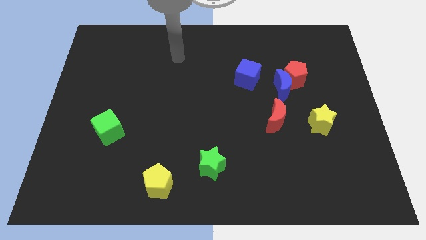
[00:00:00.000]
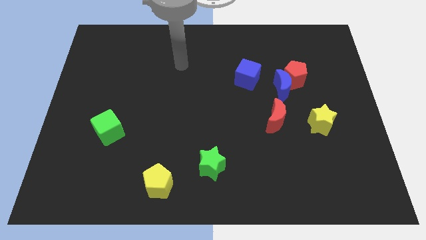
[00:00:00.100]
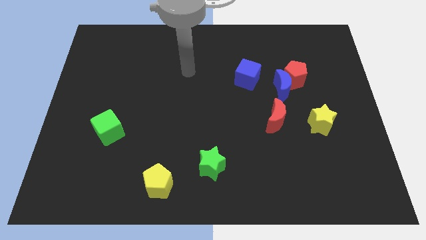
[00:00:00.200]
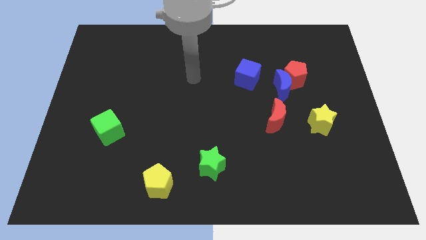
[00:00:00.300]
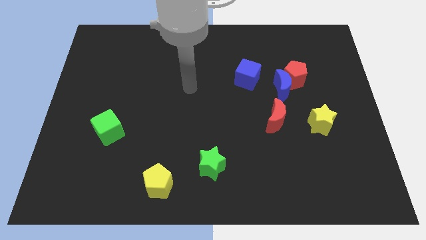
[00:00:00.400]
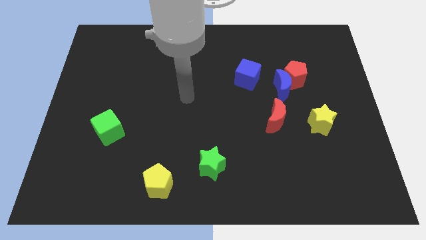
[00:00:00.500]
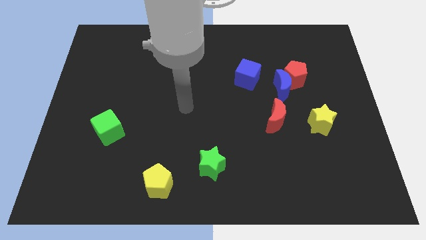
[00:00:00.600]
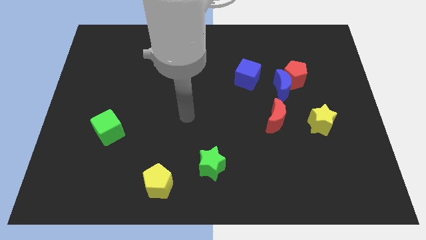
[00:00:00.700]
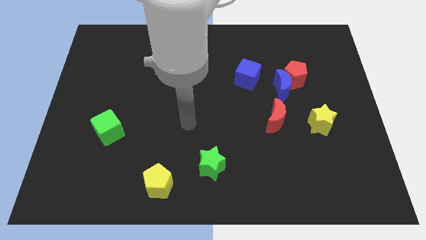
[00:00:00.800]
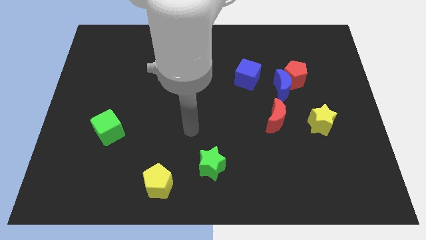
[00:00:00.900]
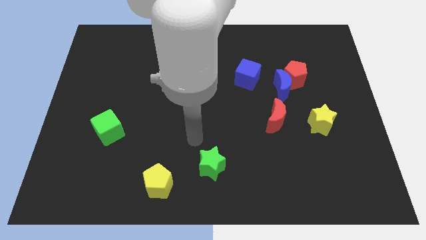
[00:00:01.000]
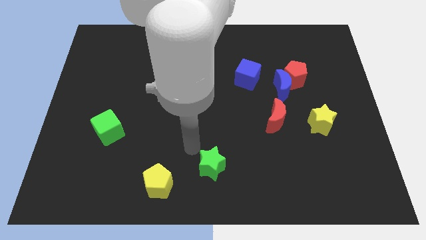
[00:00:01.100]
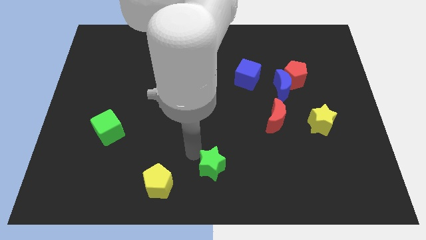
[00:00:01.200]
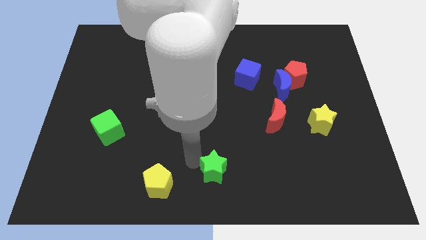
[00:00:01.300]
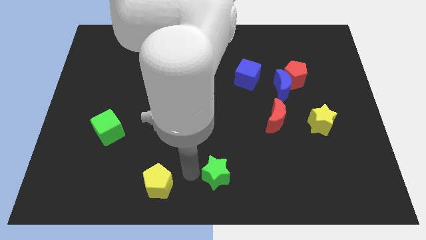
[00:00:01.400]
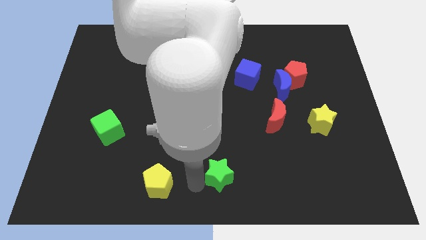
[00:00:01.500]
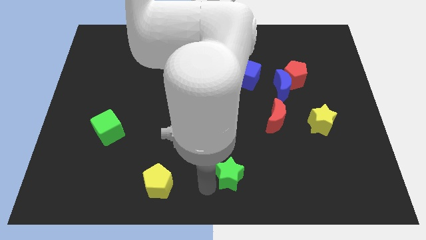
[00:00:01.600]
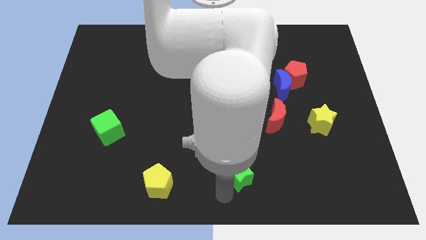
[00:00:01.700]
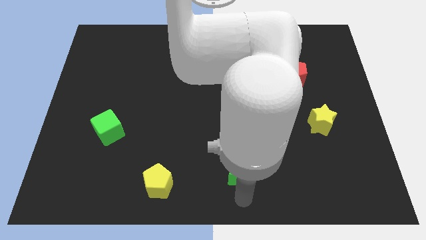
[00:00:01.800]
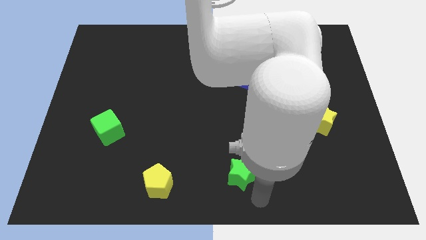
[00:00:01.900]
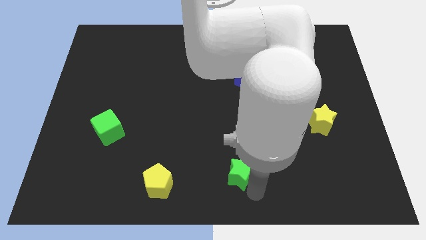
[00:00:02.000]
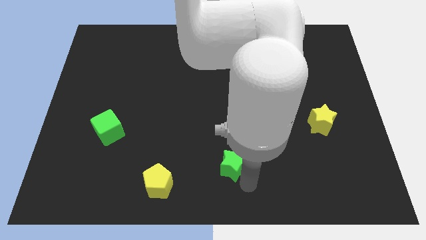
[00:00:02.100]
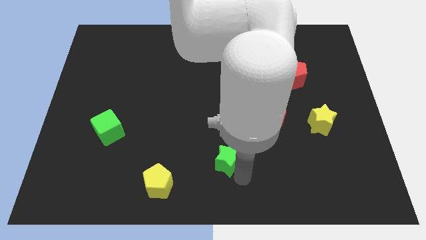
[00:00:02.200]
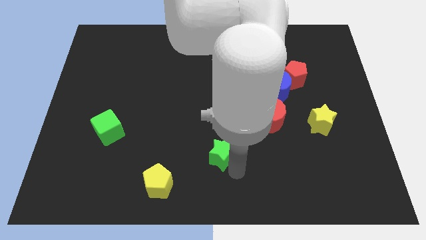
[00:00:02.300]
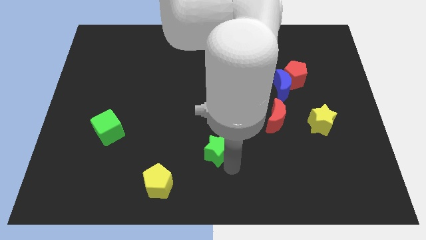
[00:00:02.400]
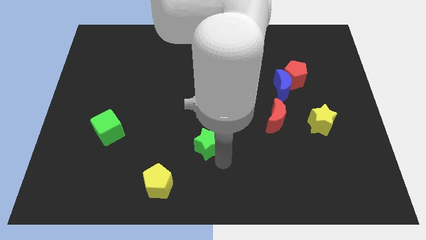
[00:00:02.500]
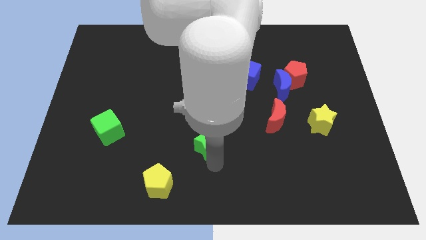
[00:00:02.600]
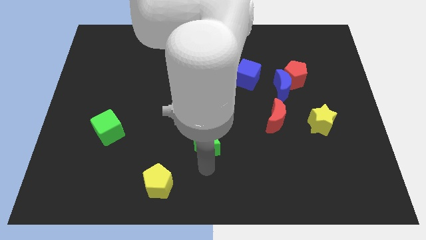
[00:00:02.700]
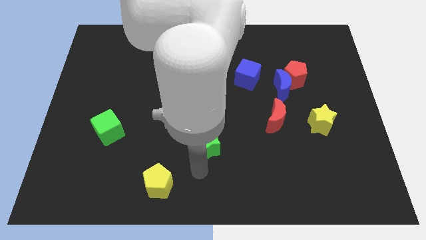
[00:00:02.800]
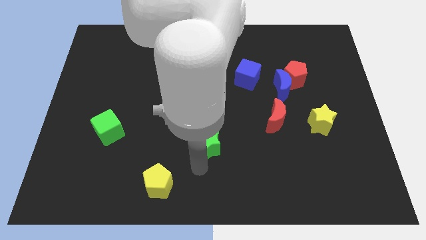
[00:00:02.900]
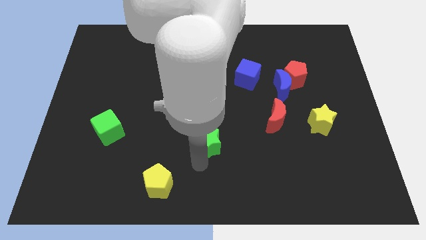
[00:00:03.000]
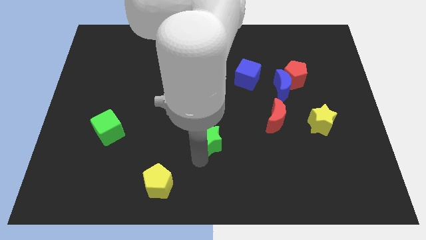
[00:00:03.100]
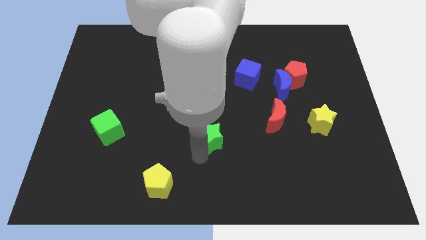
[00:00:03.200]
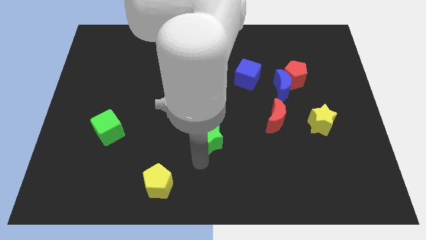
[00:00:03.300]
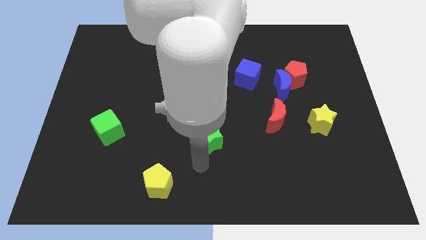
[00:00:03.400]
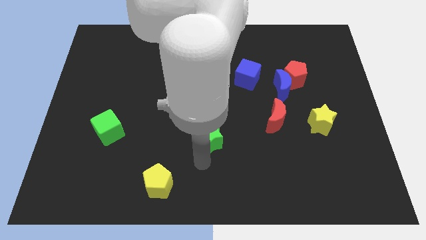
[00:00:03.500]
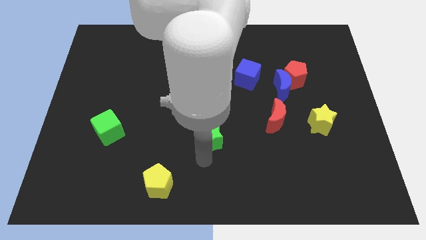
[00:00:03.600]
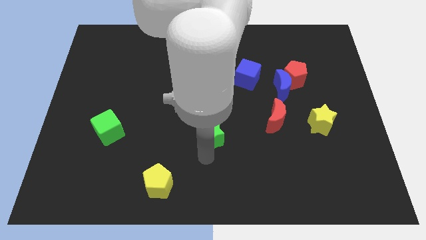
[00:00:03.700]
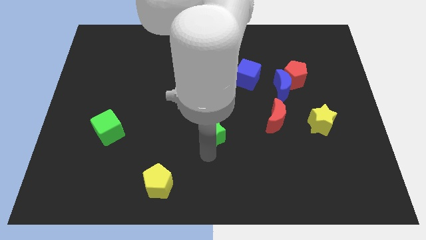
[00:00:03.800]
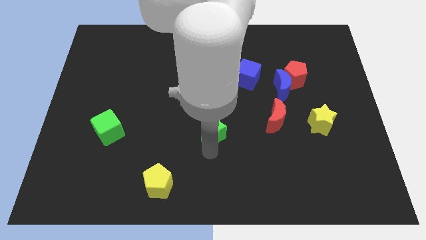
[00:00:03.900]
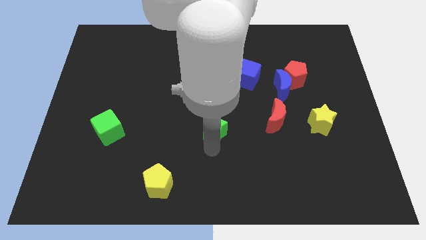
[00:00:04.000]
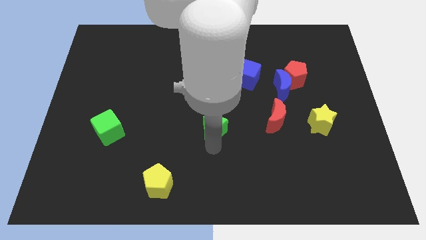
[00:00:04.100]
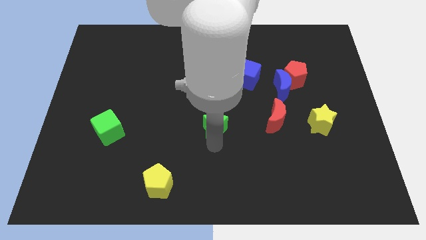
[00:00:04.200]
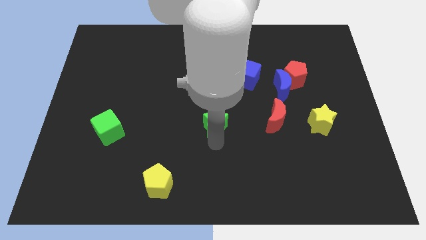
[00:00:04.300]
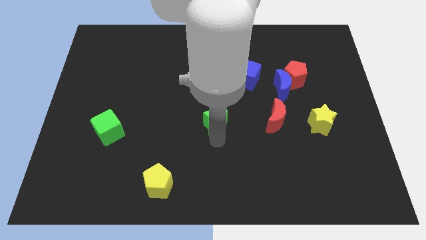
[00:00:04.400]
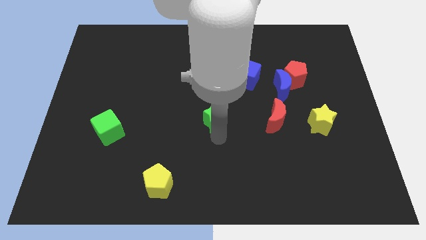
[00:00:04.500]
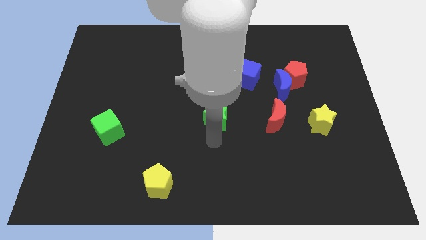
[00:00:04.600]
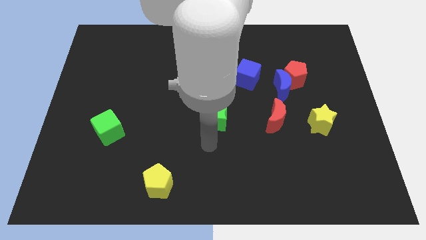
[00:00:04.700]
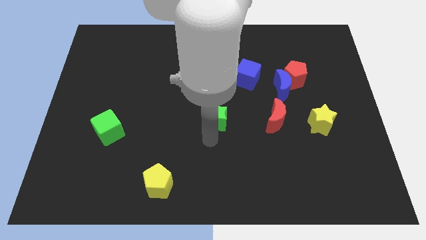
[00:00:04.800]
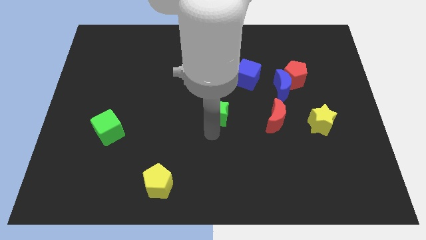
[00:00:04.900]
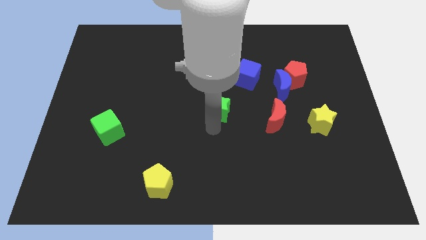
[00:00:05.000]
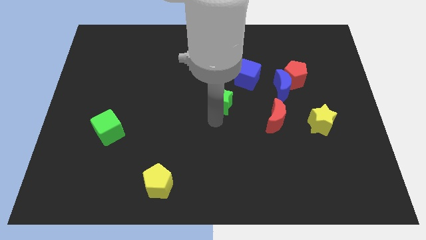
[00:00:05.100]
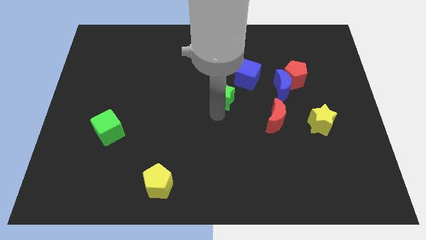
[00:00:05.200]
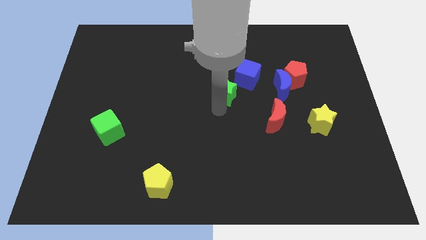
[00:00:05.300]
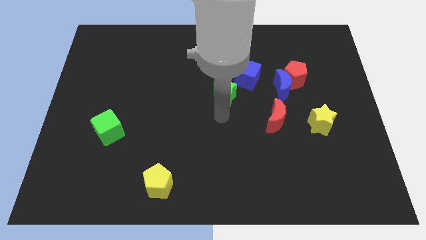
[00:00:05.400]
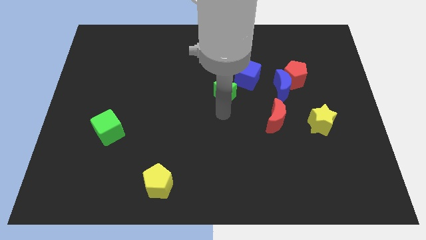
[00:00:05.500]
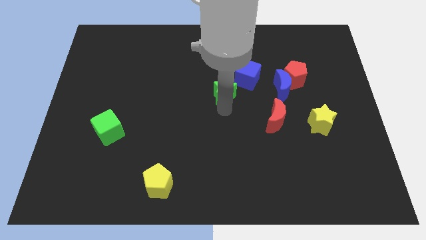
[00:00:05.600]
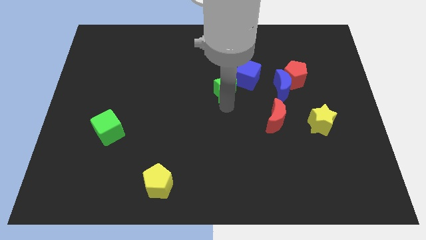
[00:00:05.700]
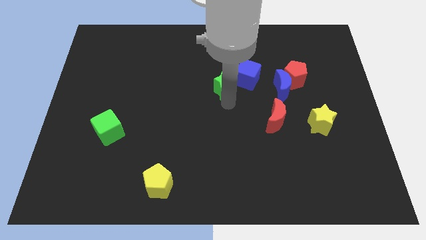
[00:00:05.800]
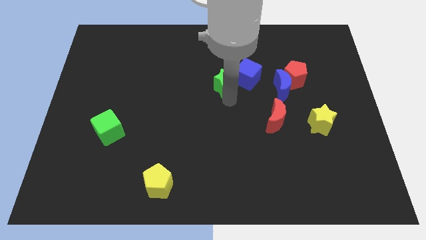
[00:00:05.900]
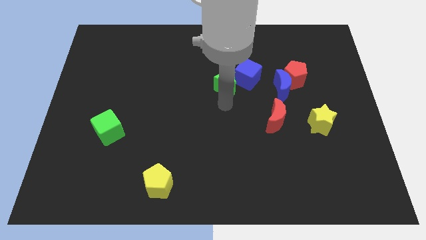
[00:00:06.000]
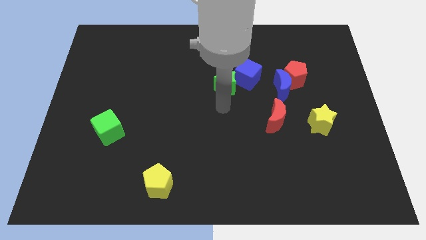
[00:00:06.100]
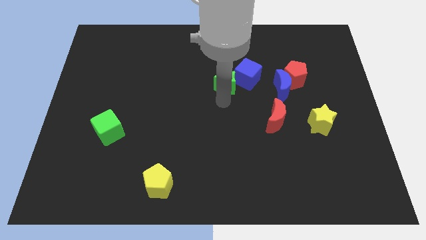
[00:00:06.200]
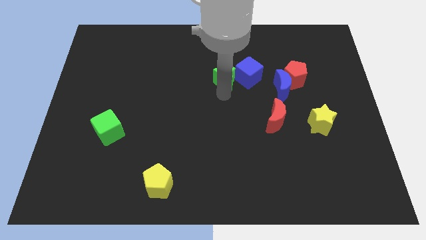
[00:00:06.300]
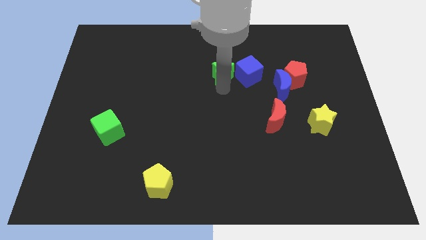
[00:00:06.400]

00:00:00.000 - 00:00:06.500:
move the green star to the top left side of the blue cube

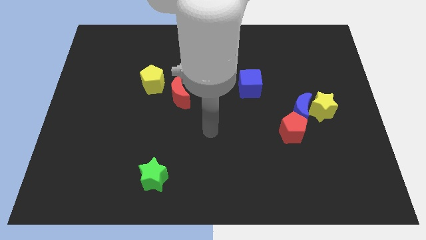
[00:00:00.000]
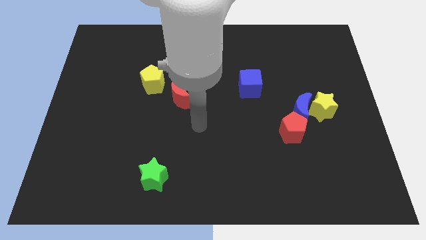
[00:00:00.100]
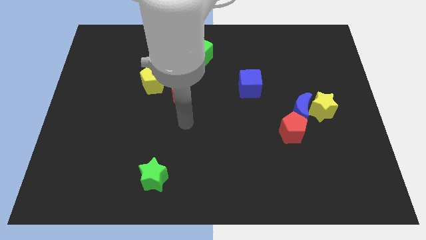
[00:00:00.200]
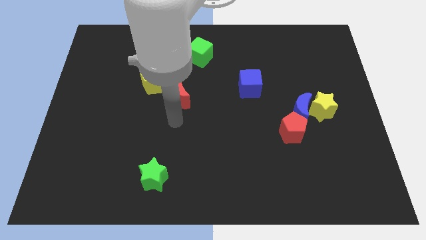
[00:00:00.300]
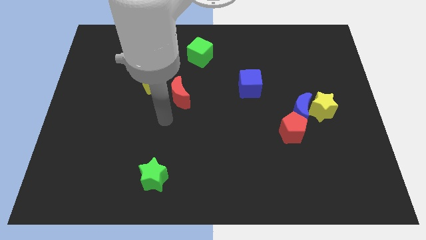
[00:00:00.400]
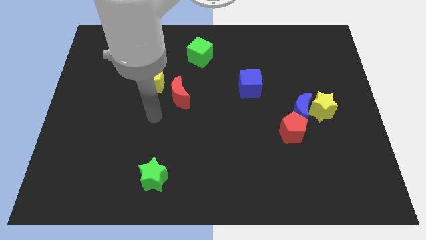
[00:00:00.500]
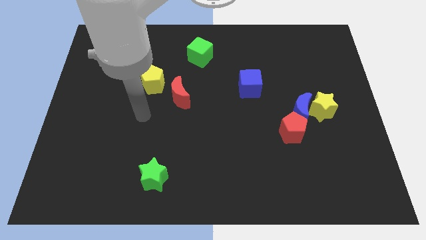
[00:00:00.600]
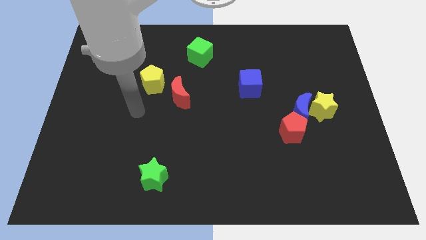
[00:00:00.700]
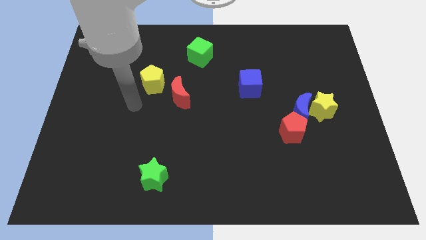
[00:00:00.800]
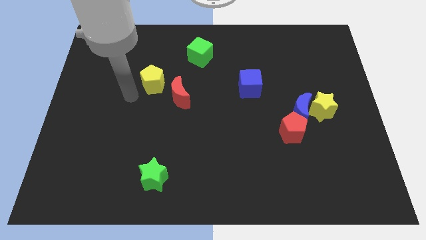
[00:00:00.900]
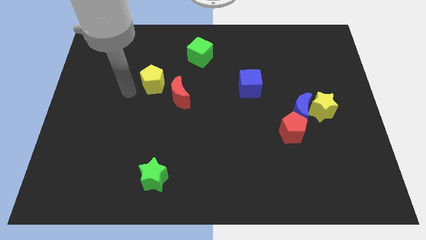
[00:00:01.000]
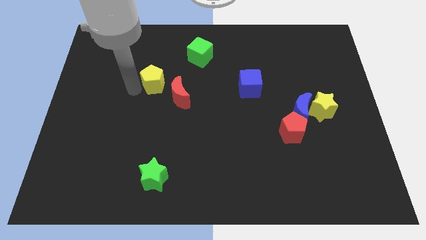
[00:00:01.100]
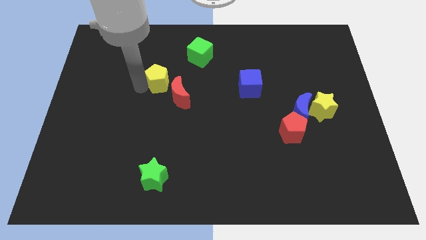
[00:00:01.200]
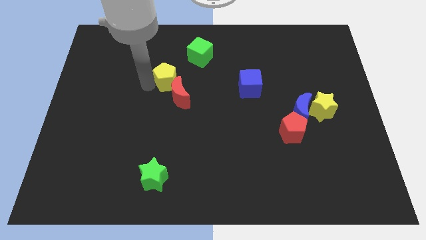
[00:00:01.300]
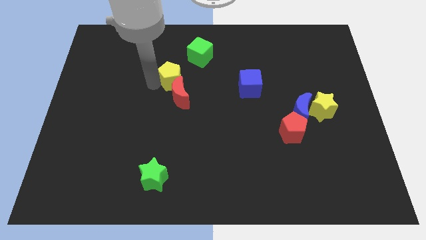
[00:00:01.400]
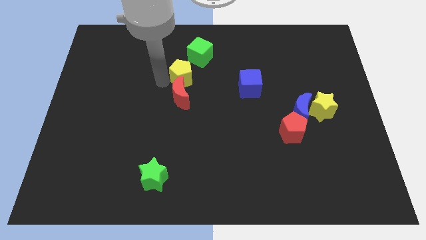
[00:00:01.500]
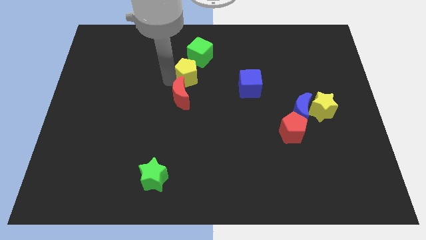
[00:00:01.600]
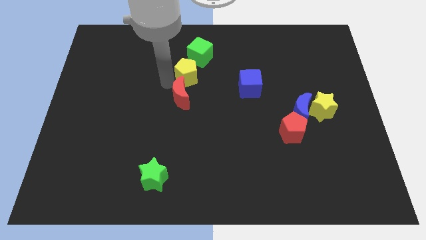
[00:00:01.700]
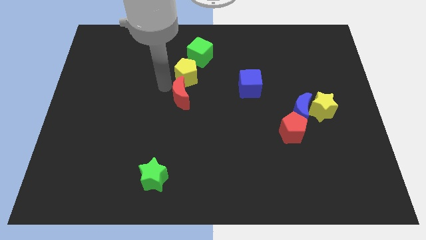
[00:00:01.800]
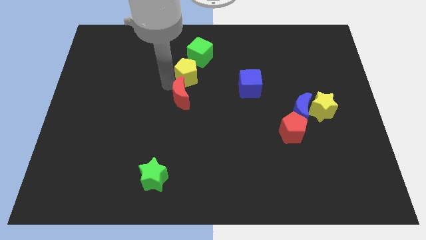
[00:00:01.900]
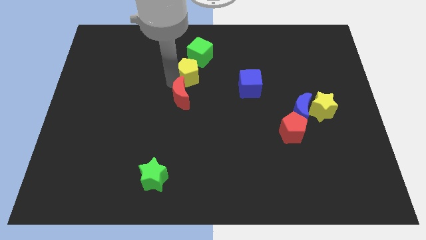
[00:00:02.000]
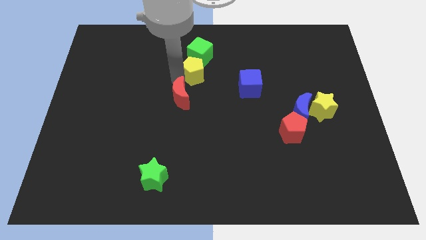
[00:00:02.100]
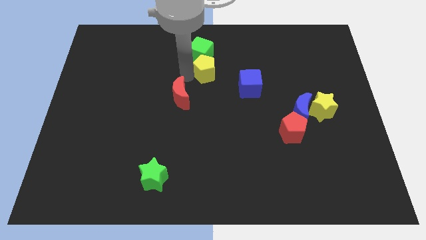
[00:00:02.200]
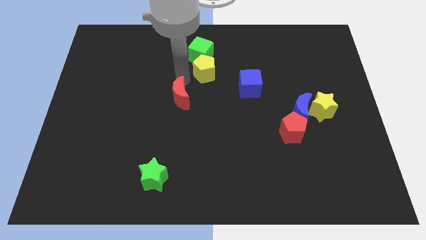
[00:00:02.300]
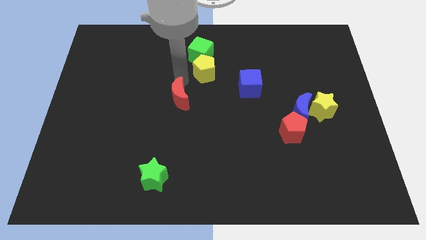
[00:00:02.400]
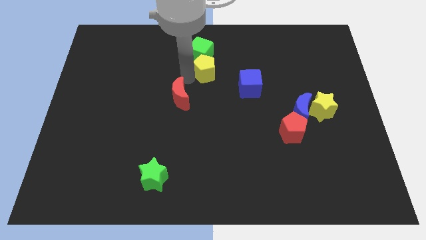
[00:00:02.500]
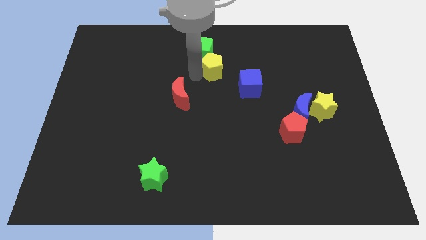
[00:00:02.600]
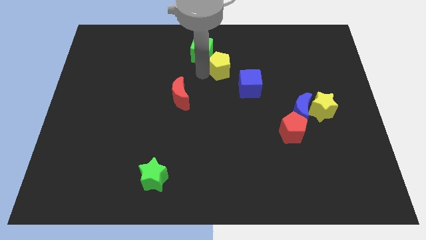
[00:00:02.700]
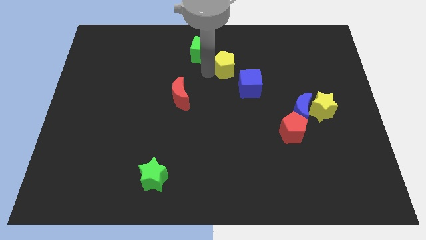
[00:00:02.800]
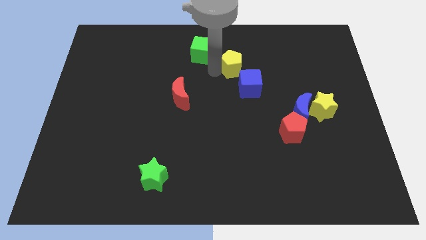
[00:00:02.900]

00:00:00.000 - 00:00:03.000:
move the yellow pentagon to the top side of the blue cube
